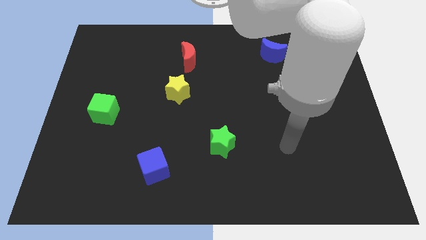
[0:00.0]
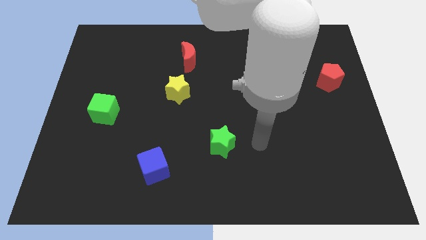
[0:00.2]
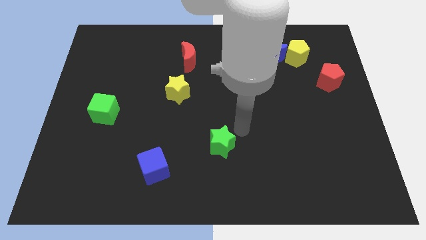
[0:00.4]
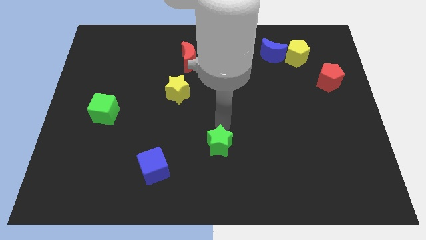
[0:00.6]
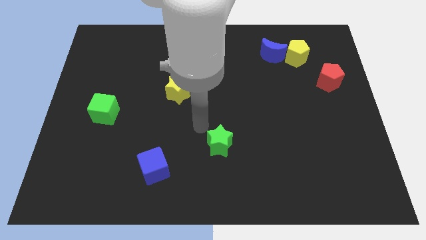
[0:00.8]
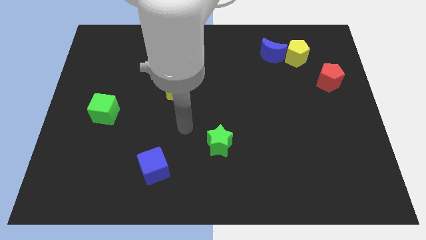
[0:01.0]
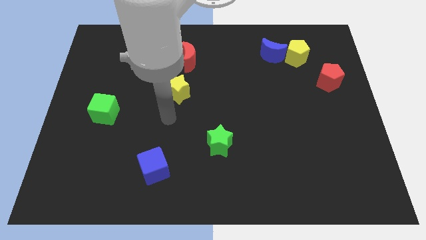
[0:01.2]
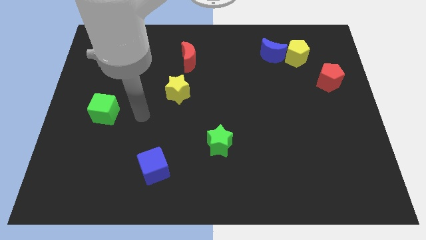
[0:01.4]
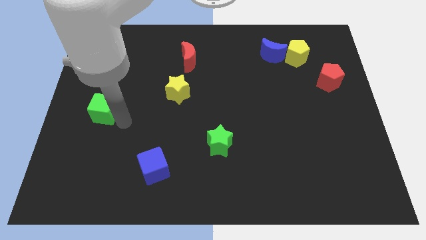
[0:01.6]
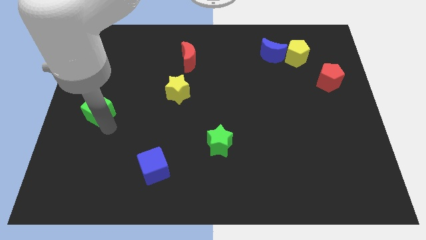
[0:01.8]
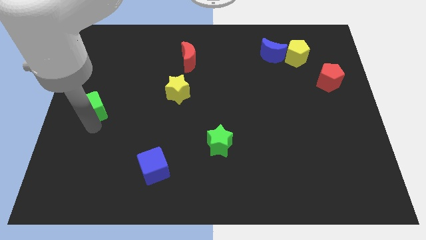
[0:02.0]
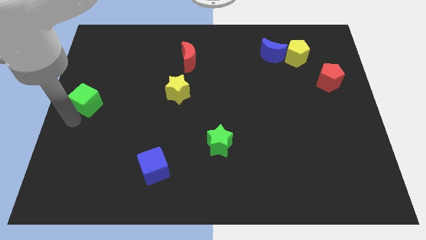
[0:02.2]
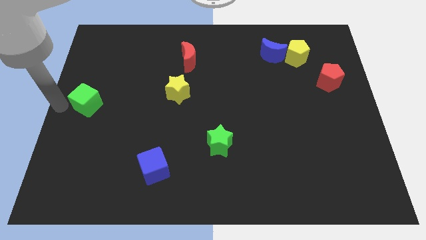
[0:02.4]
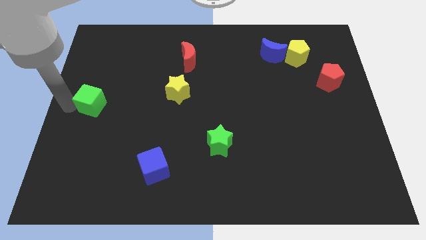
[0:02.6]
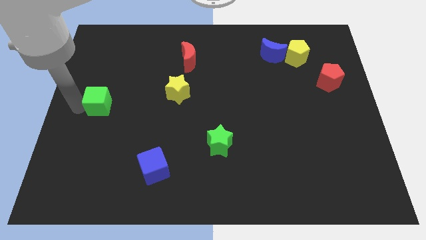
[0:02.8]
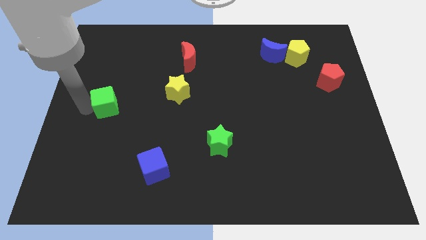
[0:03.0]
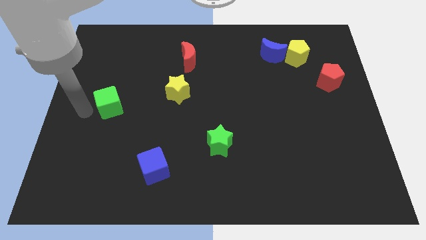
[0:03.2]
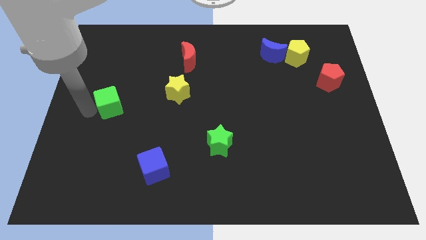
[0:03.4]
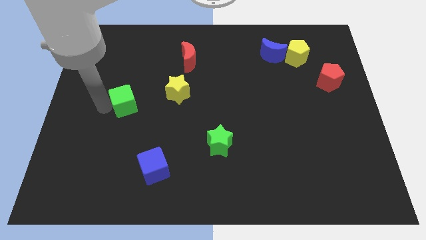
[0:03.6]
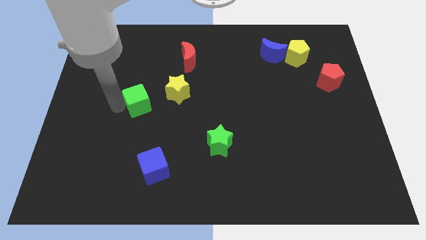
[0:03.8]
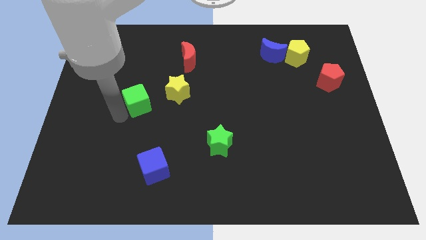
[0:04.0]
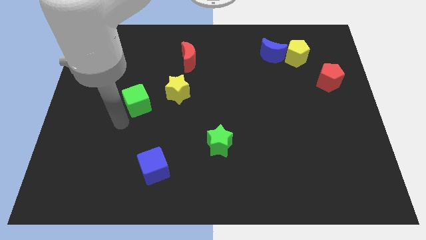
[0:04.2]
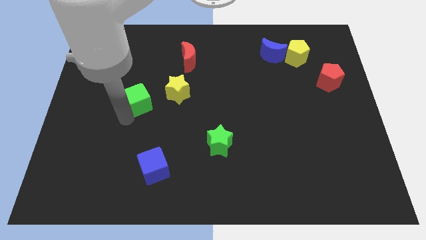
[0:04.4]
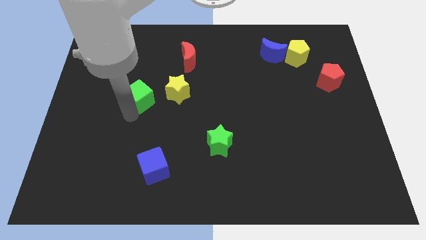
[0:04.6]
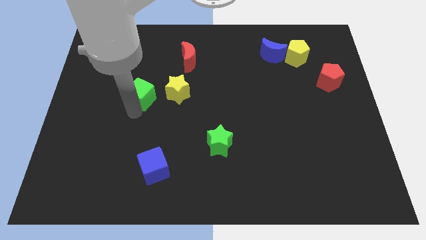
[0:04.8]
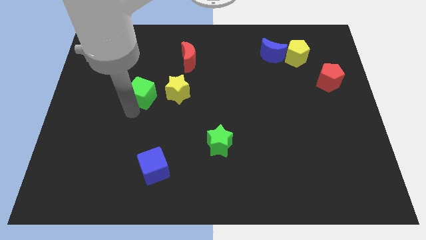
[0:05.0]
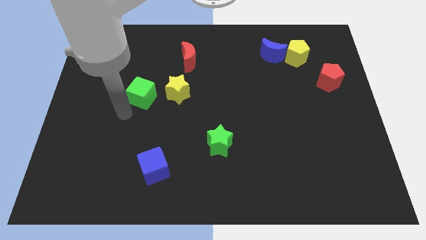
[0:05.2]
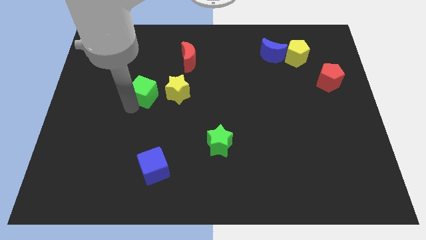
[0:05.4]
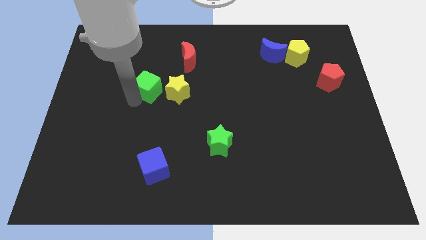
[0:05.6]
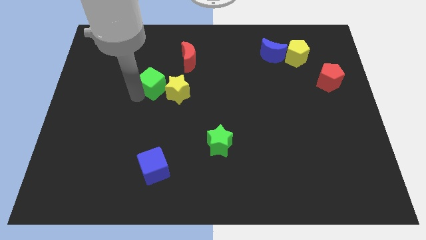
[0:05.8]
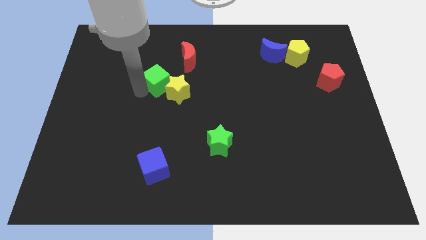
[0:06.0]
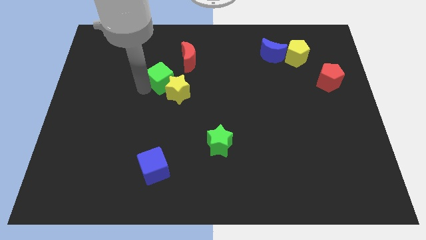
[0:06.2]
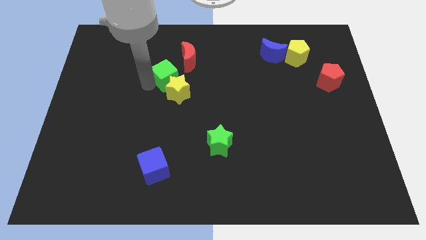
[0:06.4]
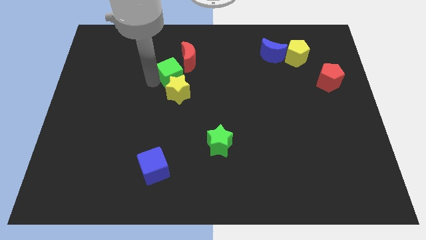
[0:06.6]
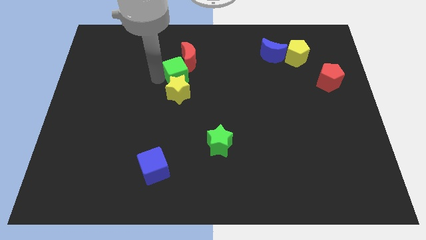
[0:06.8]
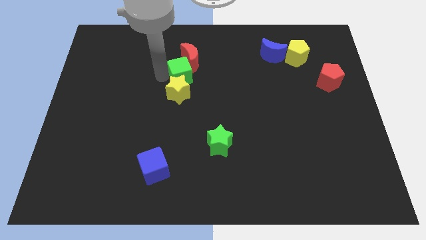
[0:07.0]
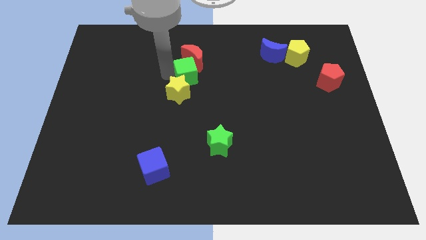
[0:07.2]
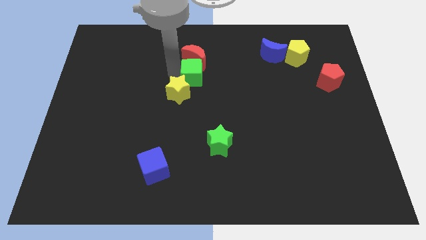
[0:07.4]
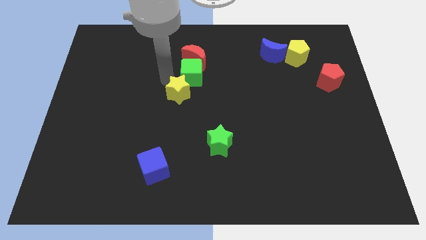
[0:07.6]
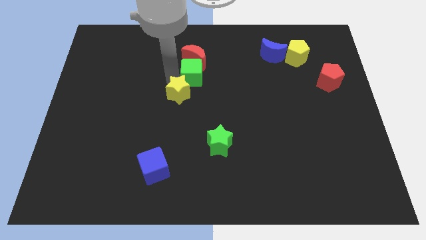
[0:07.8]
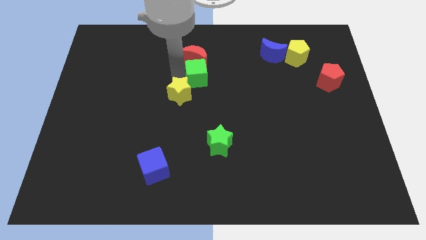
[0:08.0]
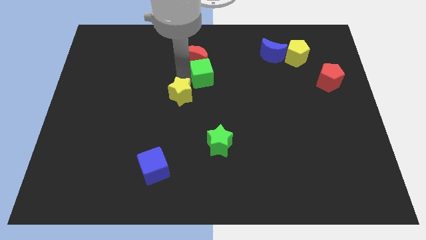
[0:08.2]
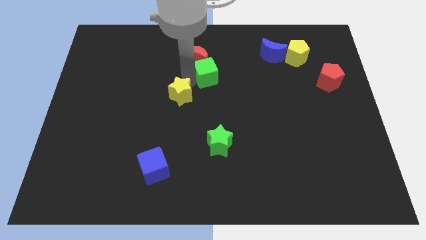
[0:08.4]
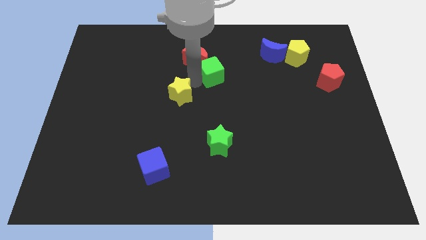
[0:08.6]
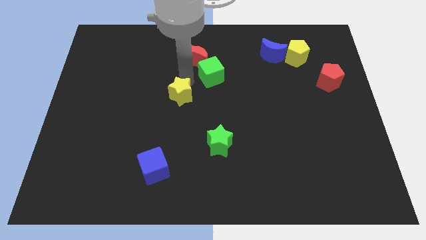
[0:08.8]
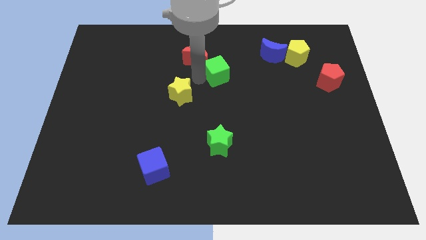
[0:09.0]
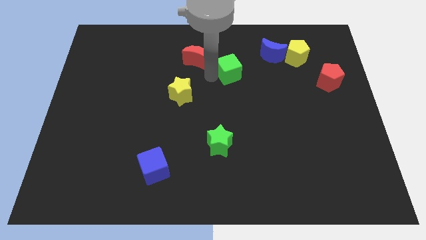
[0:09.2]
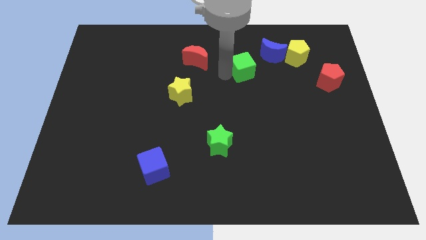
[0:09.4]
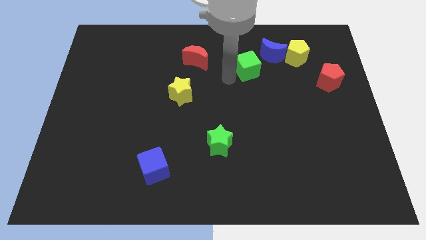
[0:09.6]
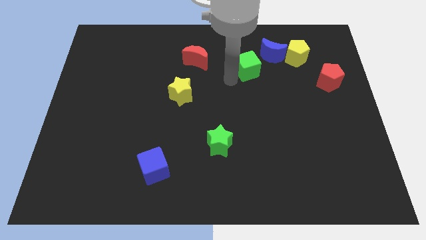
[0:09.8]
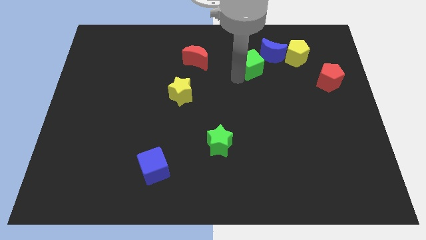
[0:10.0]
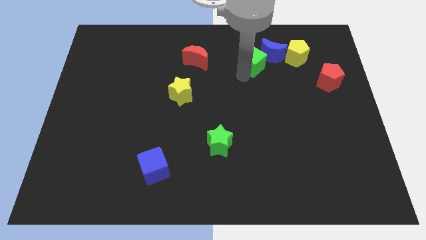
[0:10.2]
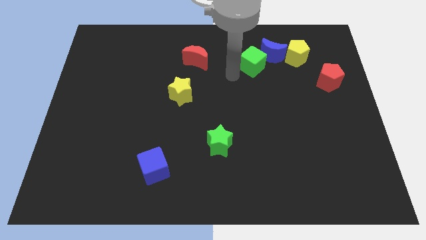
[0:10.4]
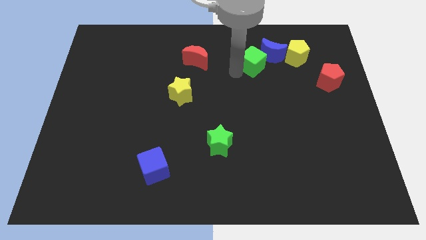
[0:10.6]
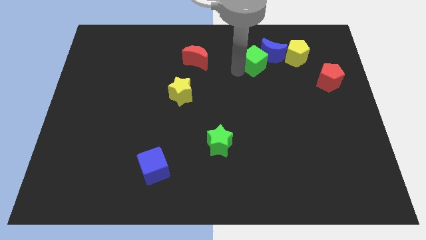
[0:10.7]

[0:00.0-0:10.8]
move the green cube towards the blue moon

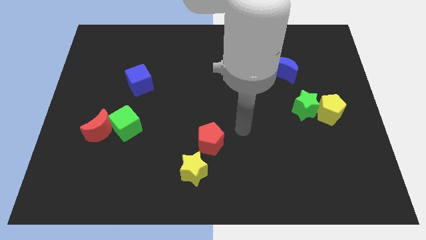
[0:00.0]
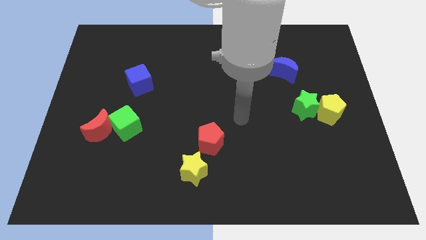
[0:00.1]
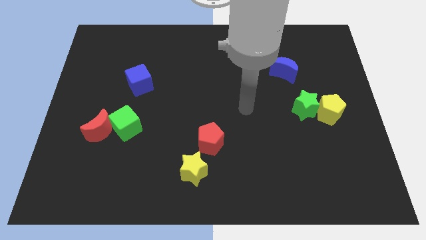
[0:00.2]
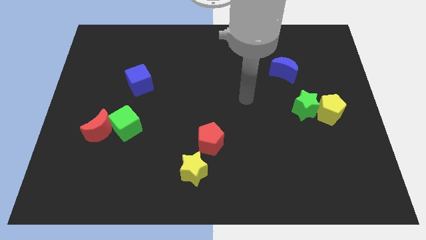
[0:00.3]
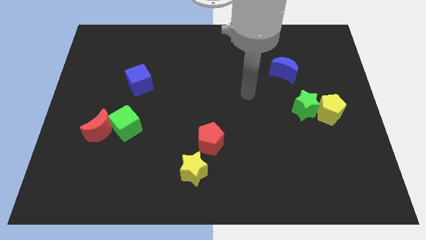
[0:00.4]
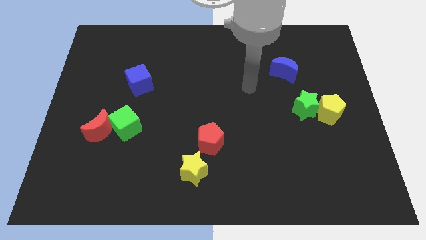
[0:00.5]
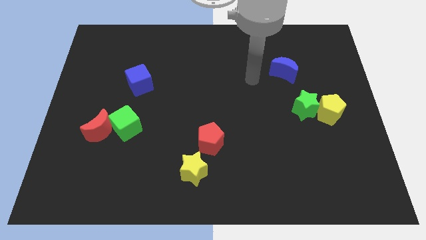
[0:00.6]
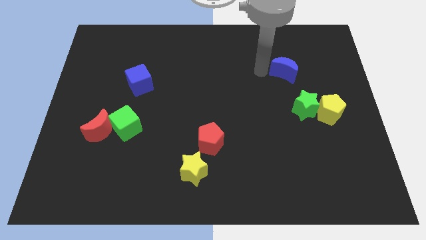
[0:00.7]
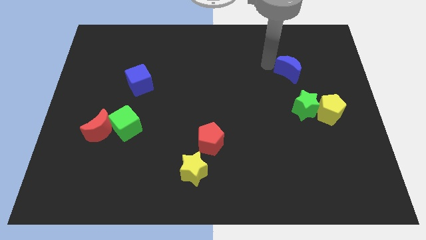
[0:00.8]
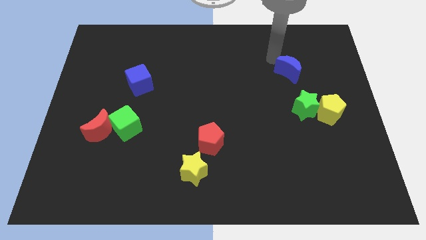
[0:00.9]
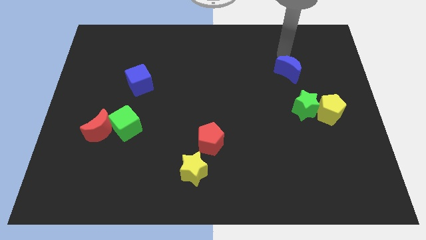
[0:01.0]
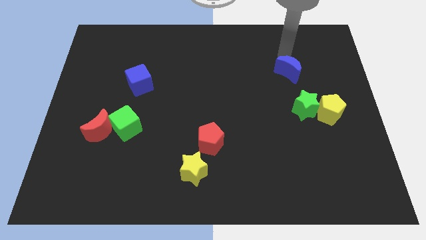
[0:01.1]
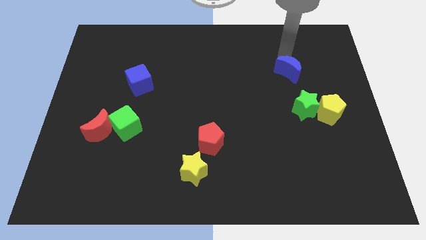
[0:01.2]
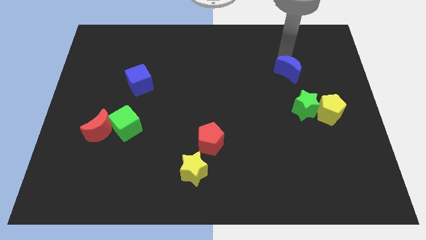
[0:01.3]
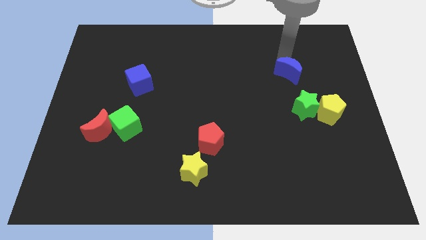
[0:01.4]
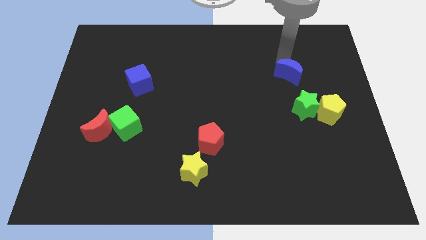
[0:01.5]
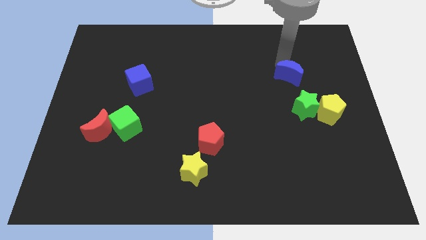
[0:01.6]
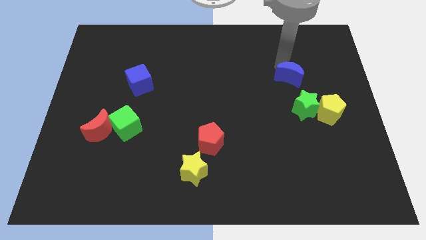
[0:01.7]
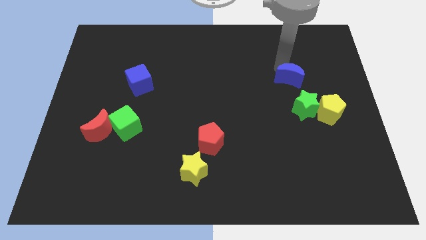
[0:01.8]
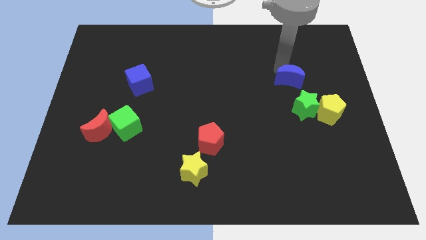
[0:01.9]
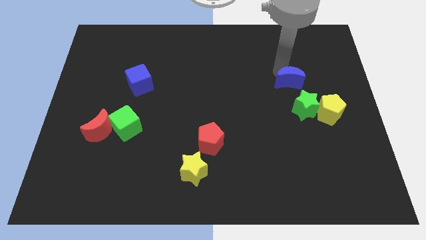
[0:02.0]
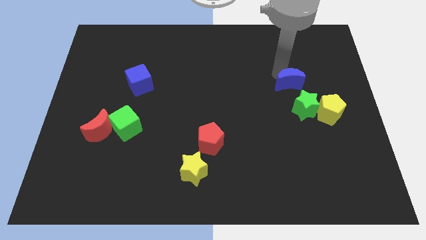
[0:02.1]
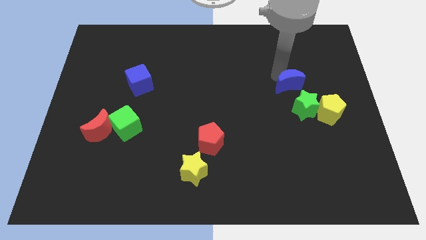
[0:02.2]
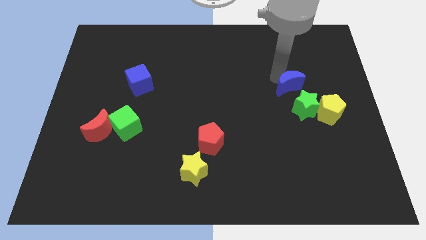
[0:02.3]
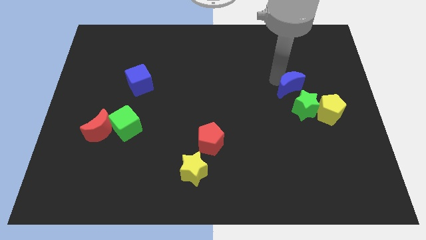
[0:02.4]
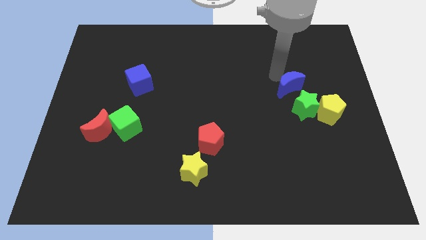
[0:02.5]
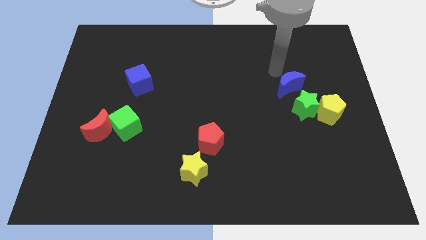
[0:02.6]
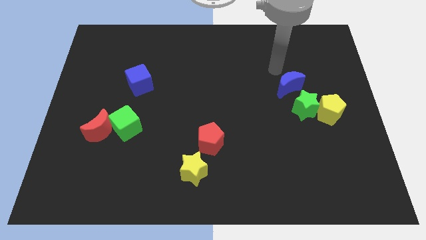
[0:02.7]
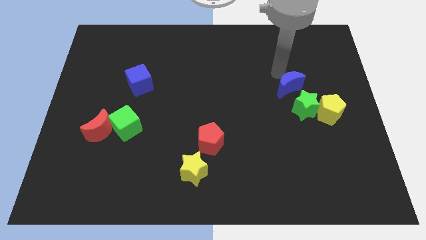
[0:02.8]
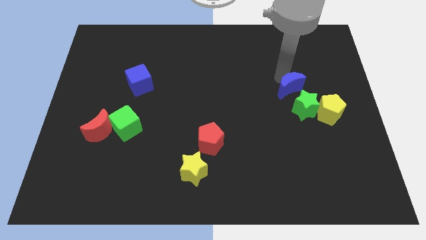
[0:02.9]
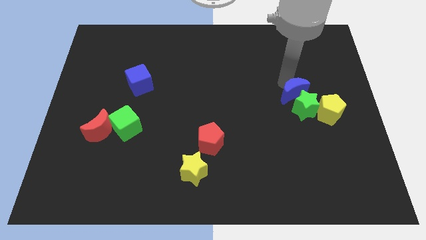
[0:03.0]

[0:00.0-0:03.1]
slide the blue moon to the green star
